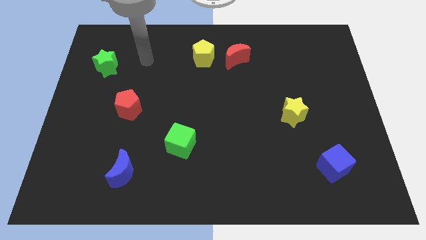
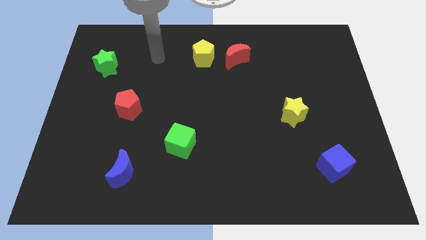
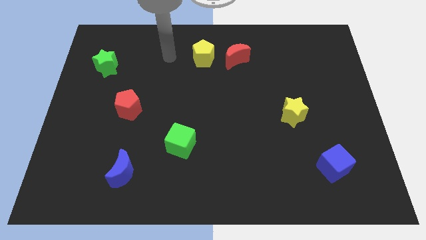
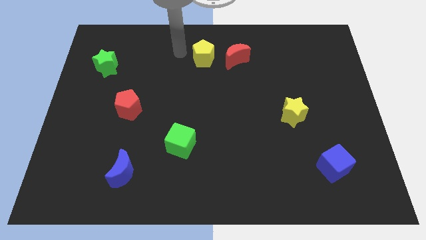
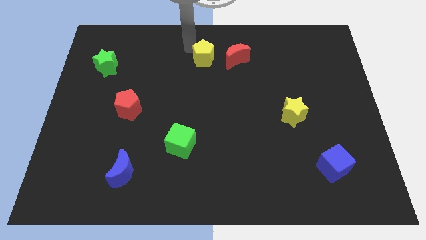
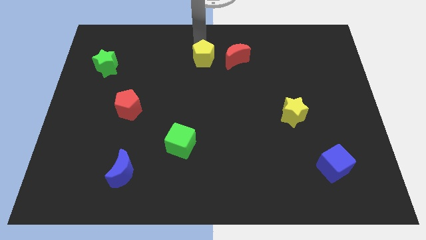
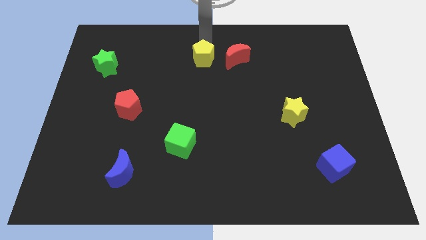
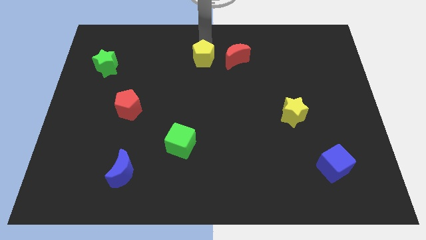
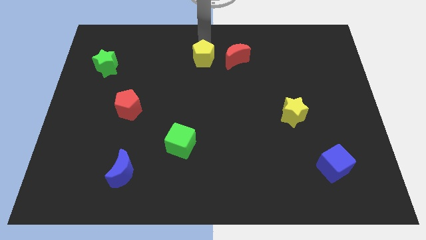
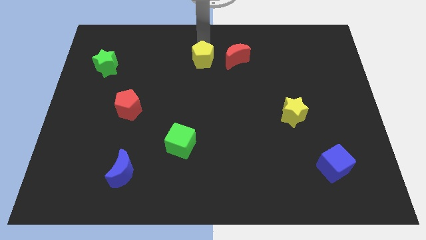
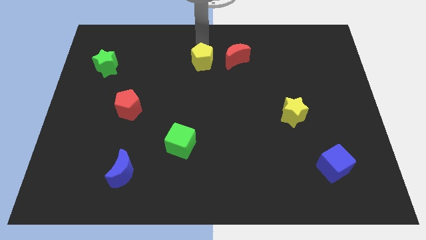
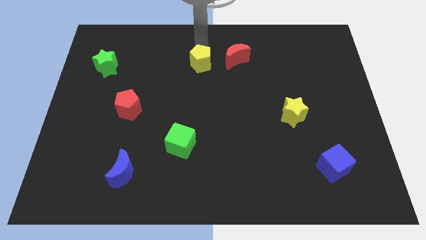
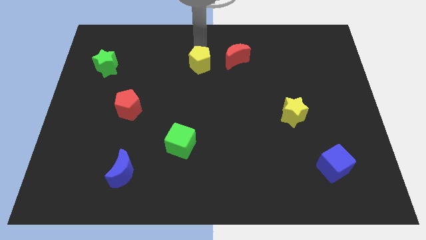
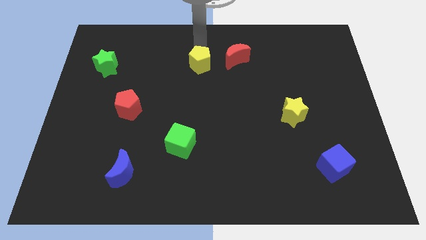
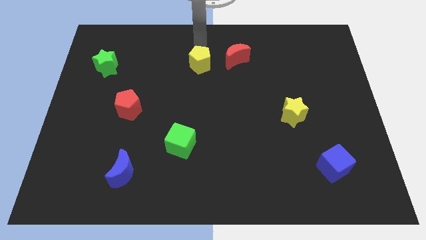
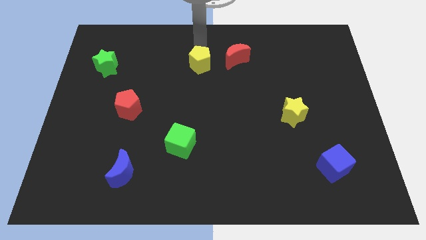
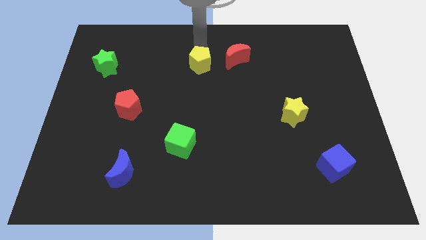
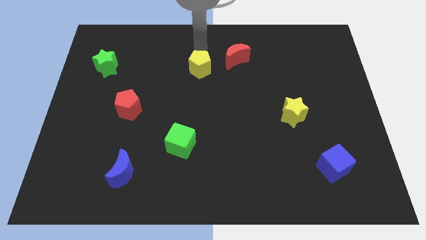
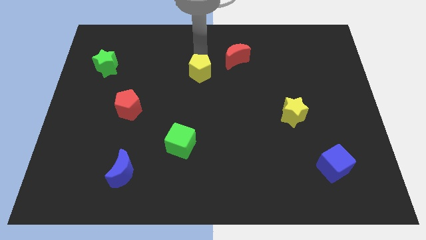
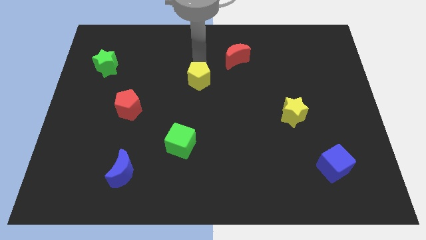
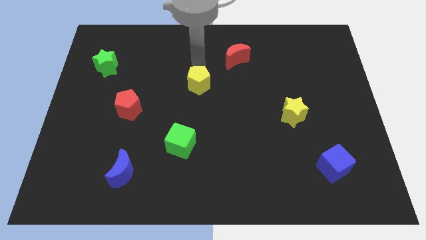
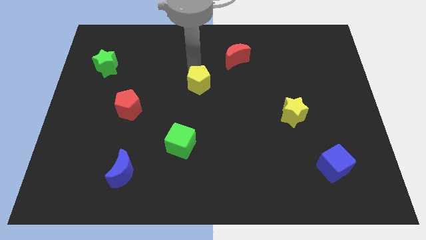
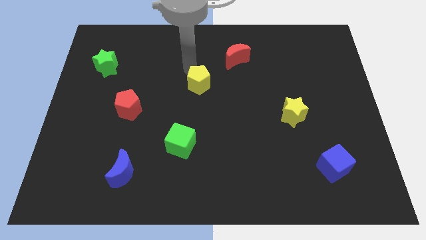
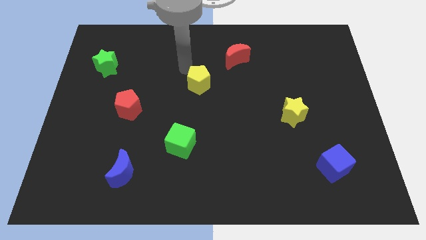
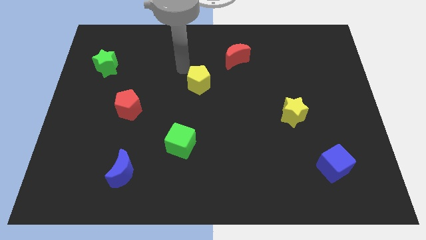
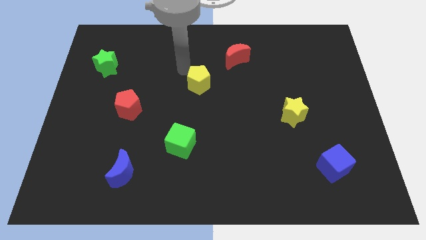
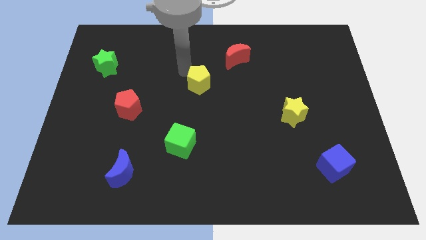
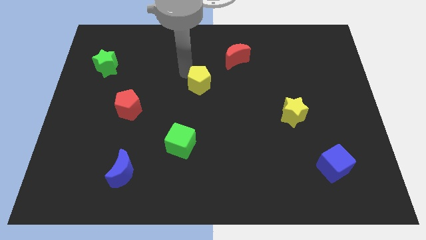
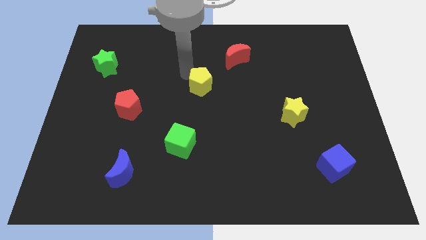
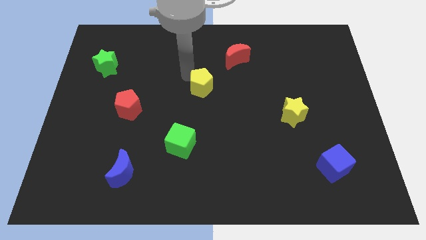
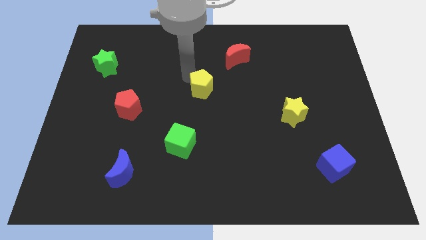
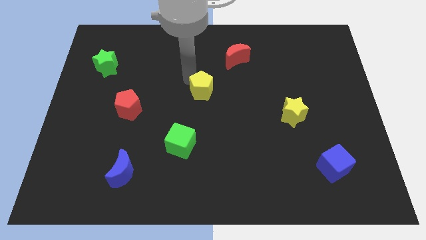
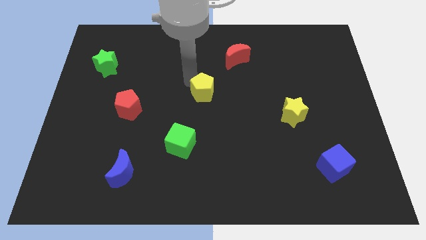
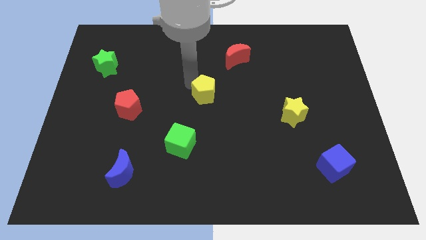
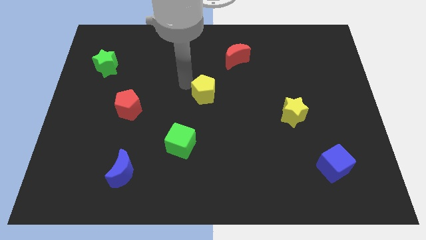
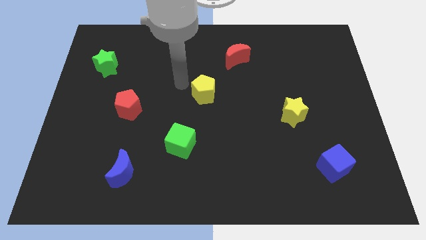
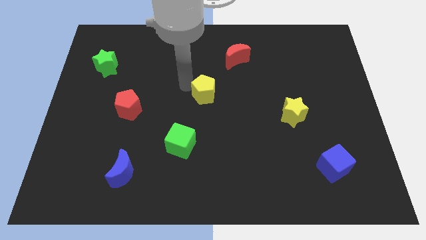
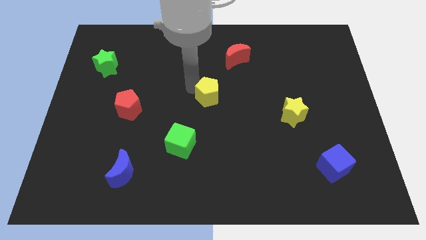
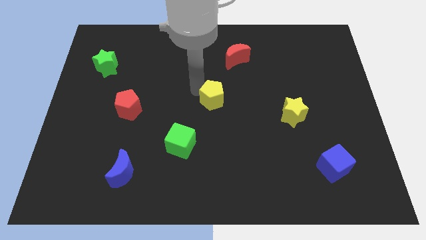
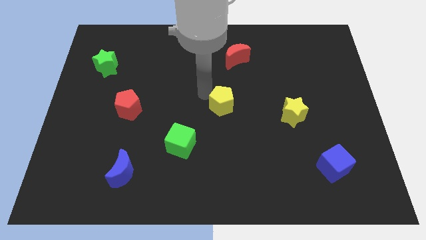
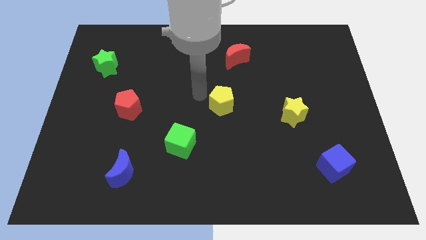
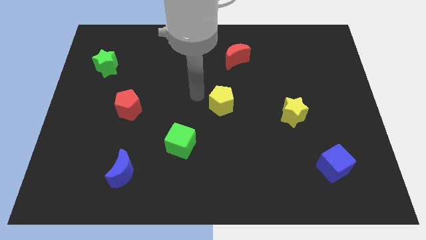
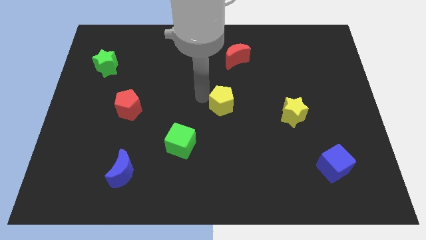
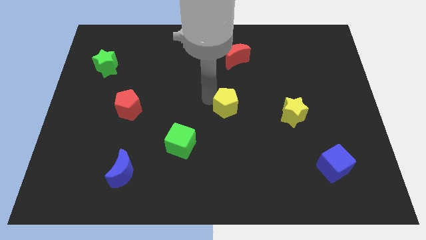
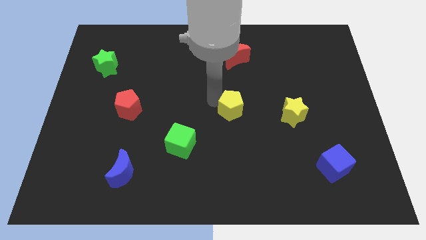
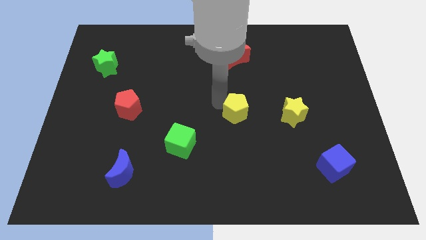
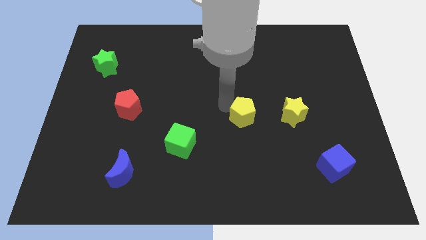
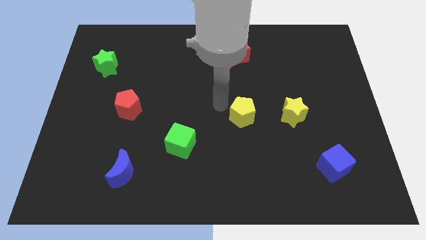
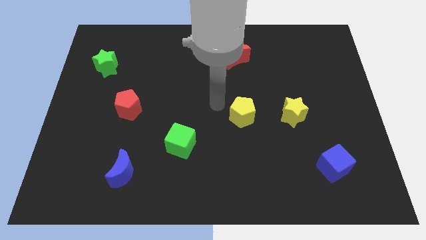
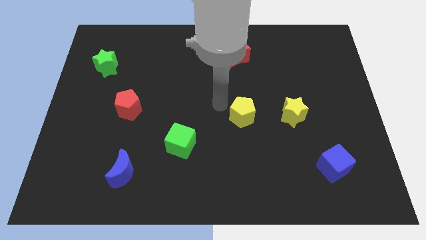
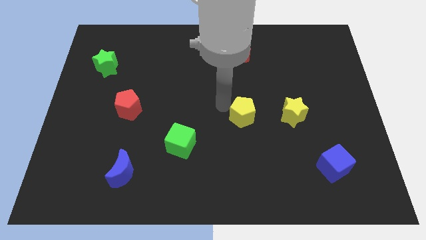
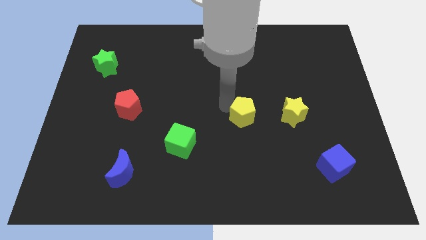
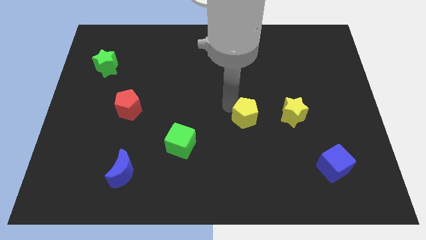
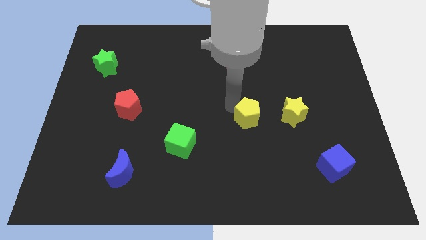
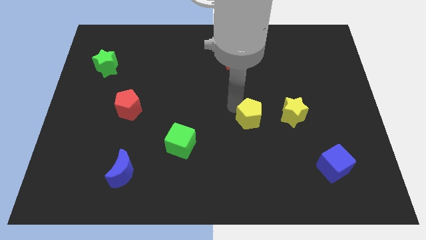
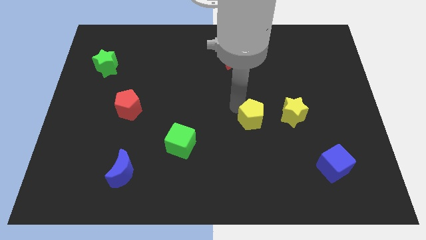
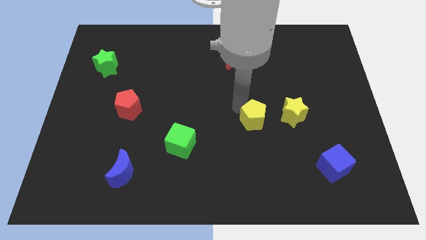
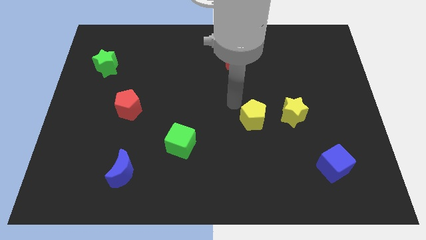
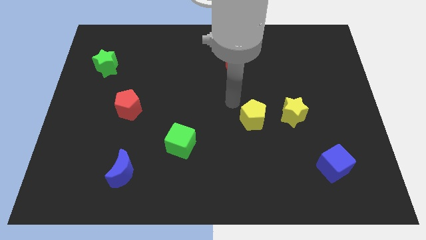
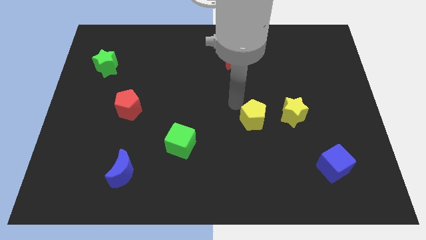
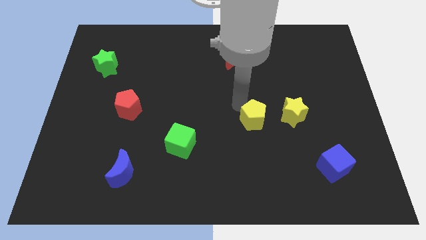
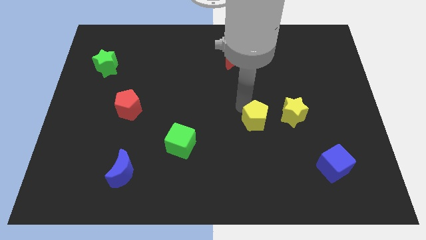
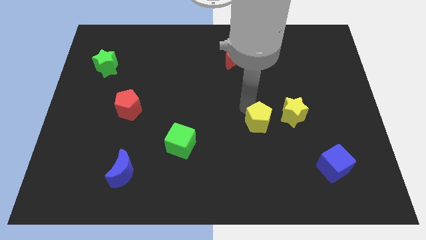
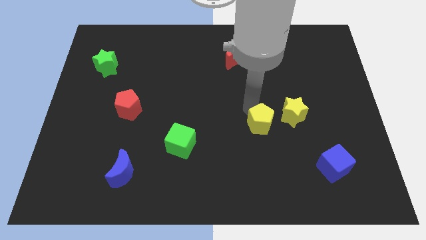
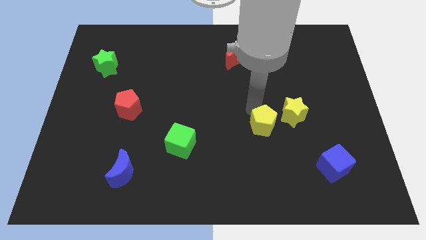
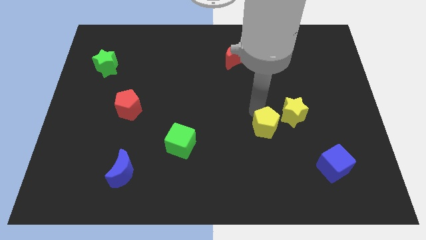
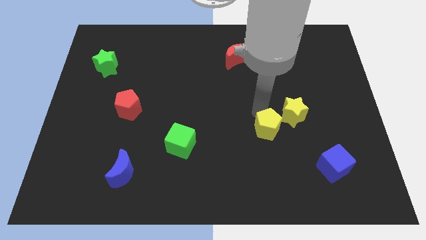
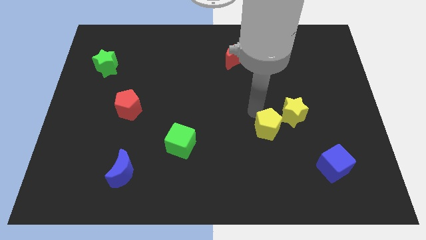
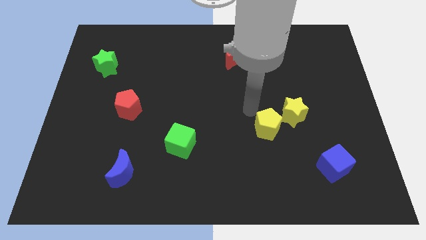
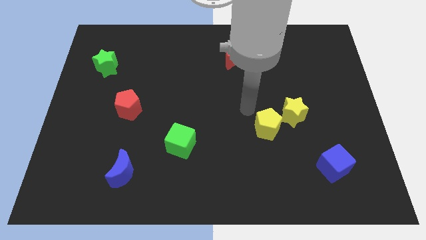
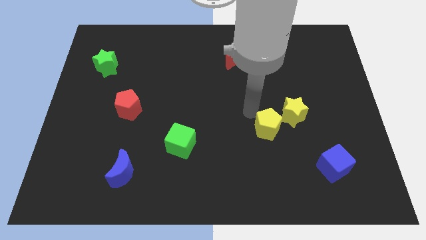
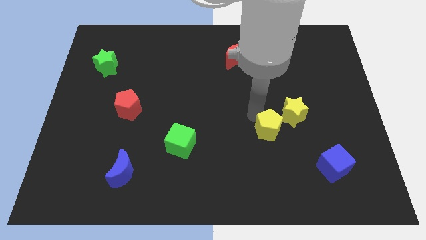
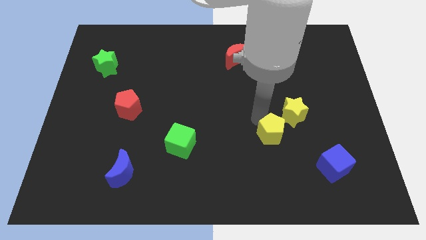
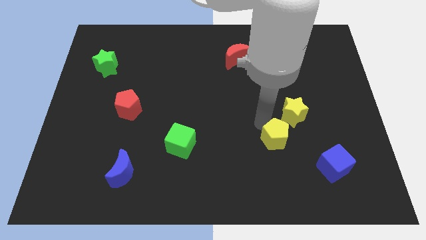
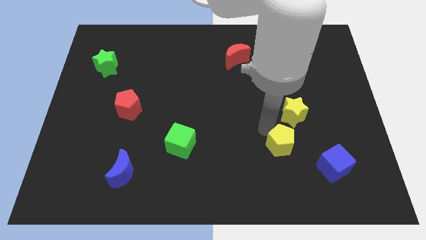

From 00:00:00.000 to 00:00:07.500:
put the yellow pentagon diagonally up and to the left of the blue cube
